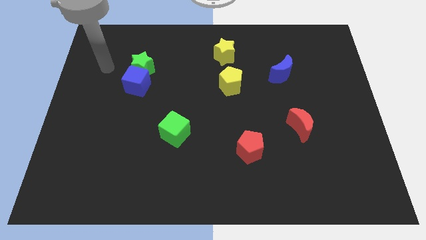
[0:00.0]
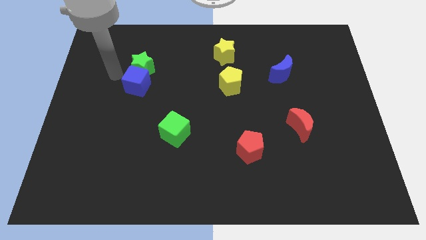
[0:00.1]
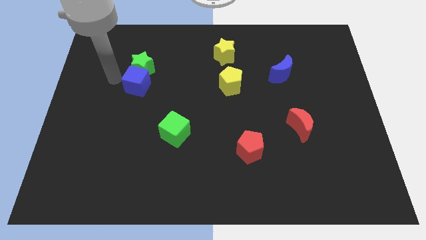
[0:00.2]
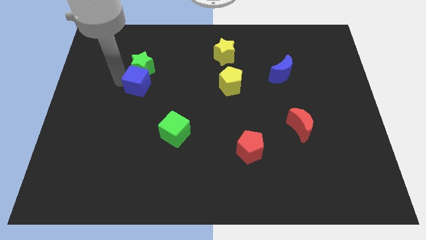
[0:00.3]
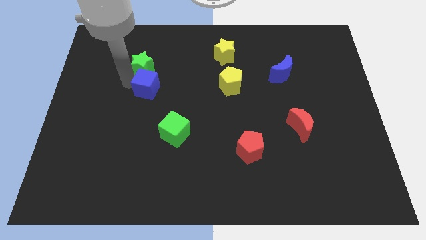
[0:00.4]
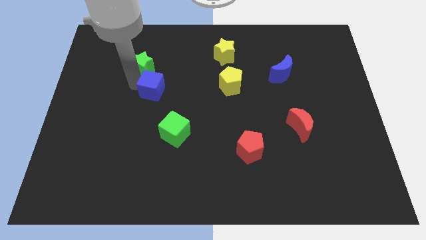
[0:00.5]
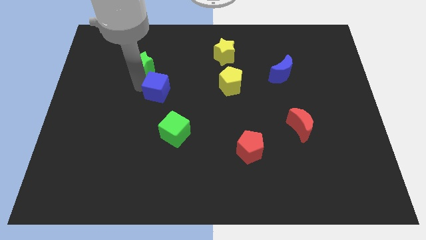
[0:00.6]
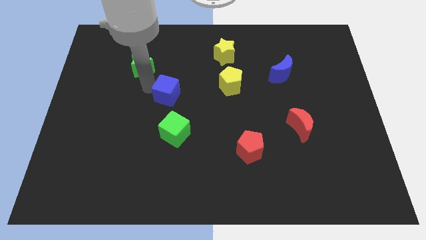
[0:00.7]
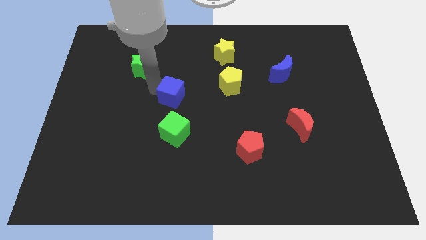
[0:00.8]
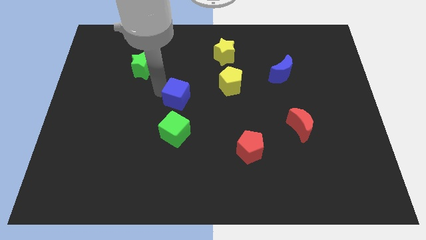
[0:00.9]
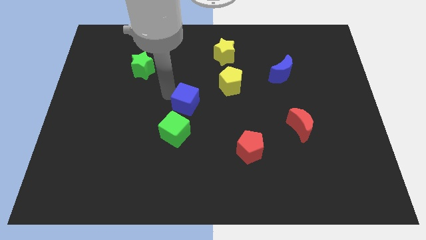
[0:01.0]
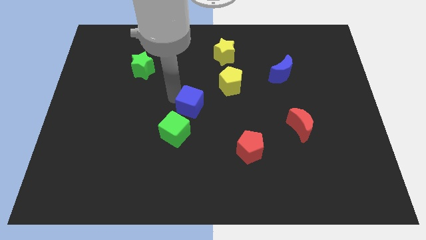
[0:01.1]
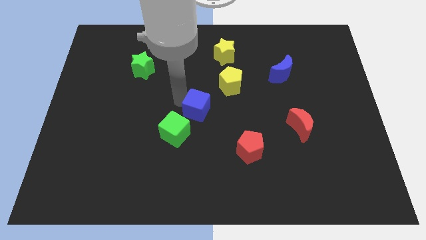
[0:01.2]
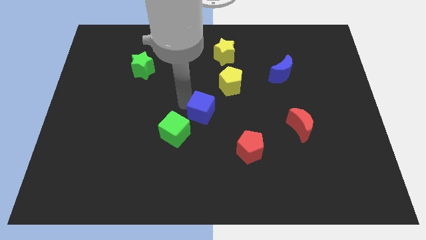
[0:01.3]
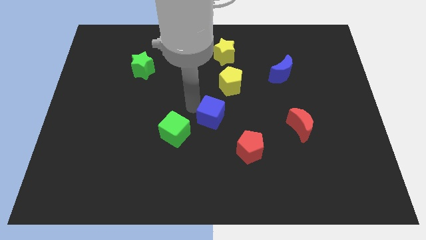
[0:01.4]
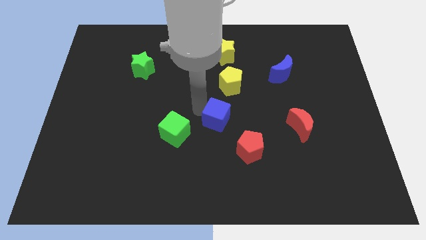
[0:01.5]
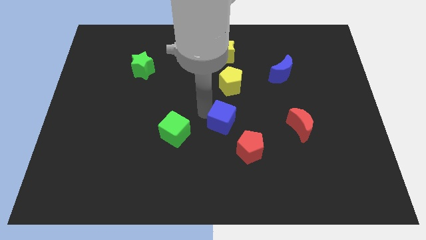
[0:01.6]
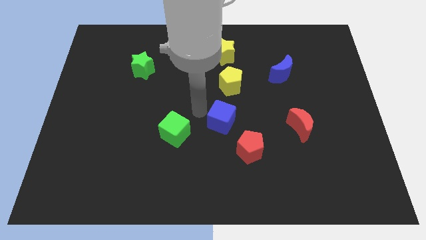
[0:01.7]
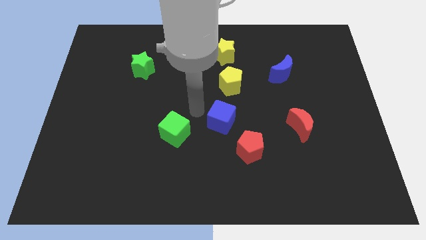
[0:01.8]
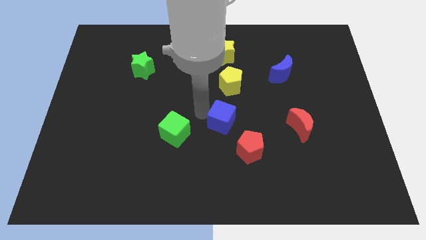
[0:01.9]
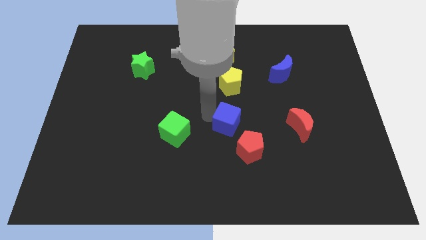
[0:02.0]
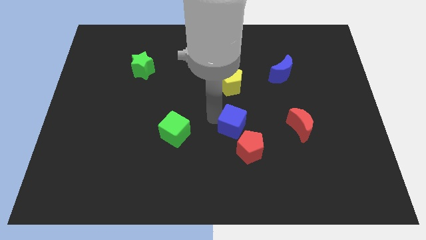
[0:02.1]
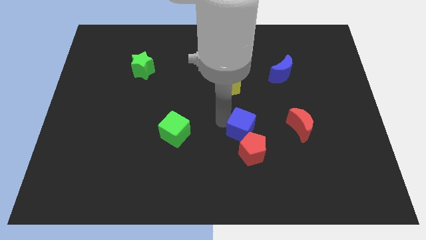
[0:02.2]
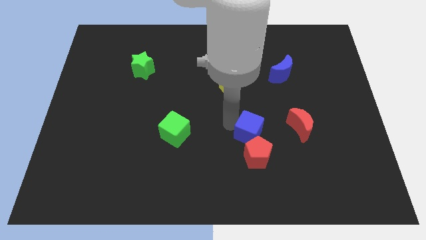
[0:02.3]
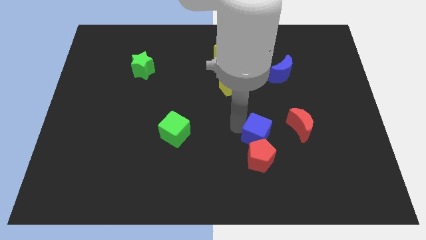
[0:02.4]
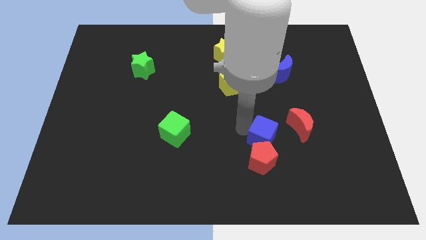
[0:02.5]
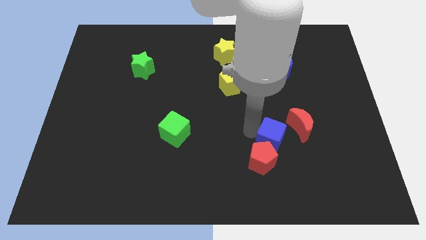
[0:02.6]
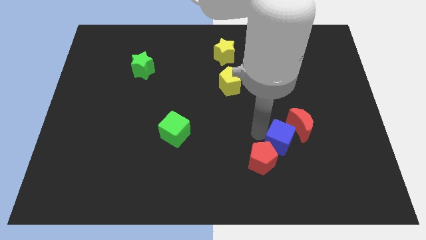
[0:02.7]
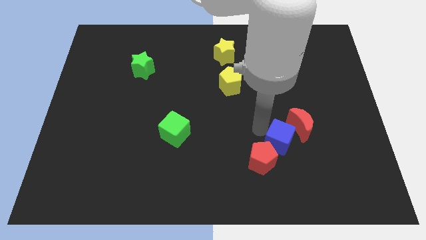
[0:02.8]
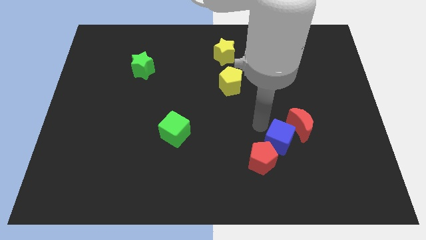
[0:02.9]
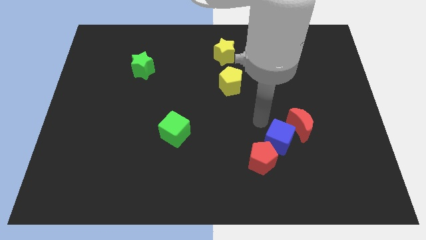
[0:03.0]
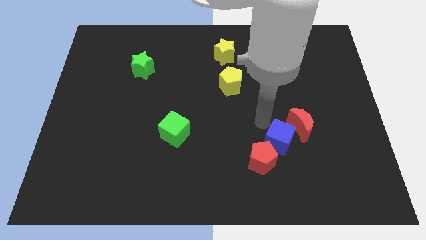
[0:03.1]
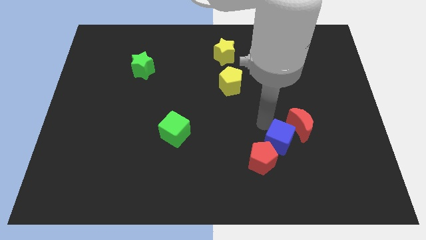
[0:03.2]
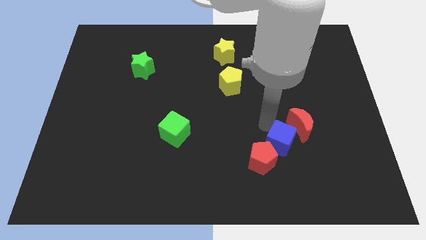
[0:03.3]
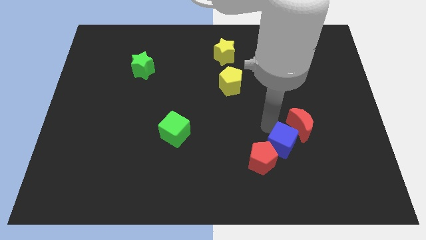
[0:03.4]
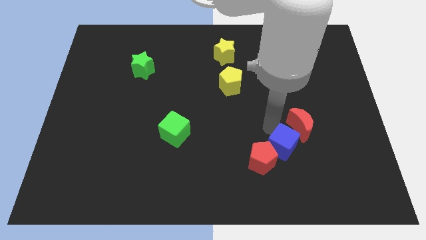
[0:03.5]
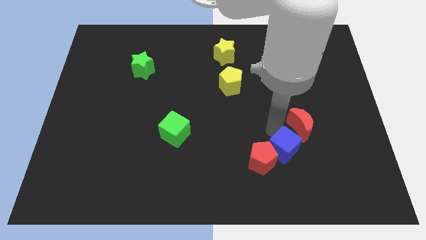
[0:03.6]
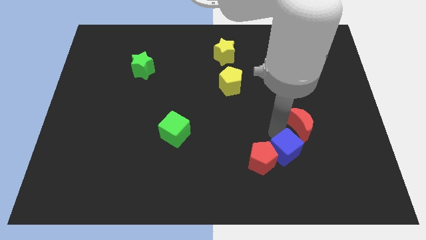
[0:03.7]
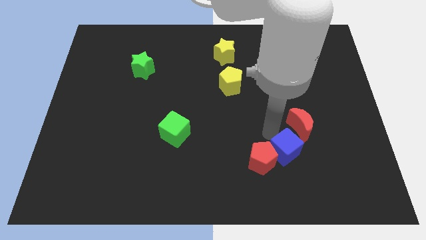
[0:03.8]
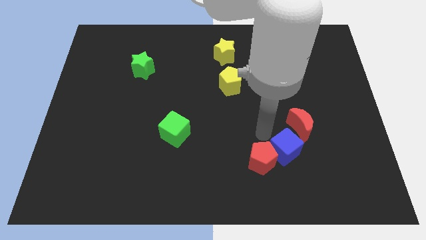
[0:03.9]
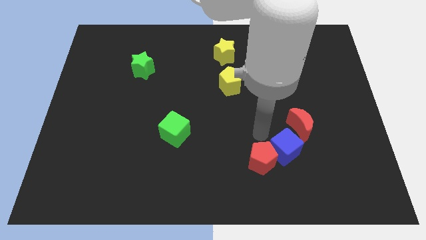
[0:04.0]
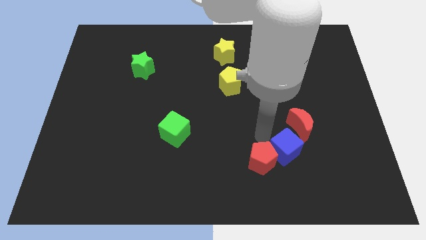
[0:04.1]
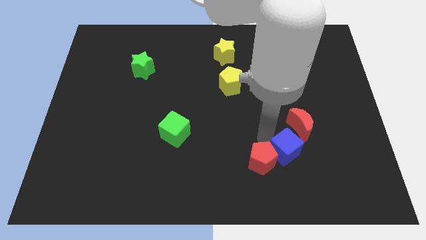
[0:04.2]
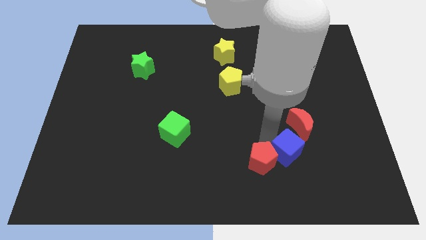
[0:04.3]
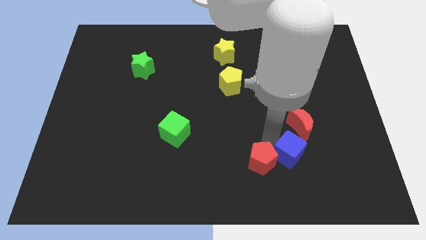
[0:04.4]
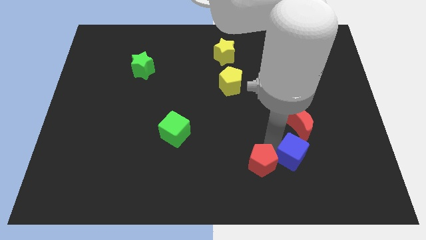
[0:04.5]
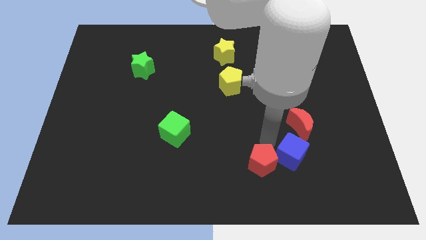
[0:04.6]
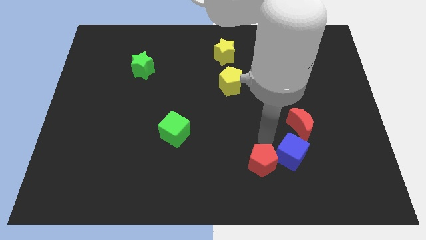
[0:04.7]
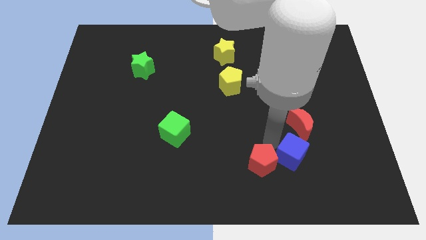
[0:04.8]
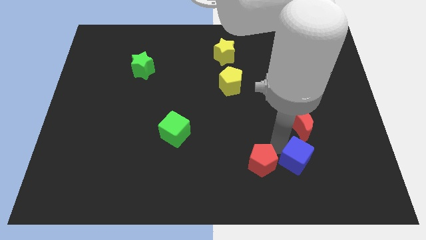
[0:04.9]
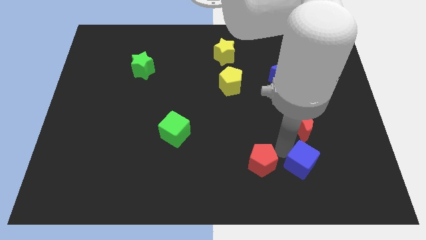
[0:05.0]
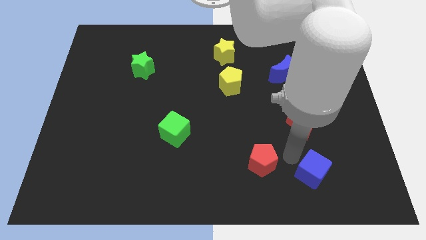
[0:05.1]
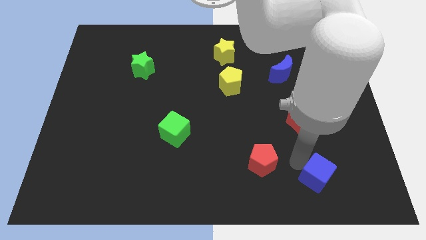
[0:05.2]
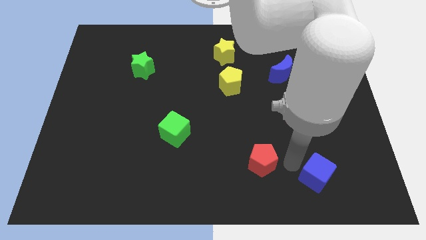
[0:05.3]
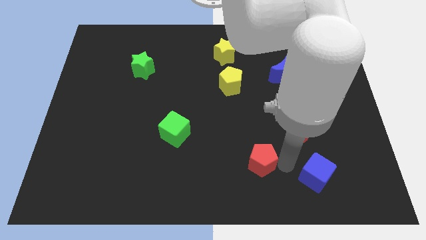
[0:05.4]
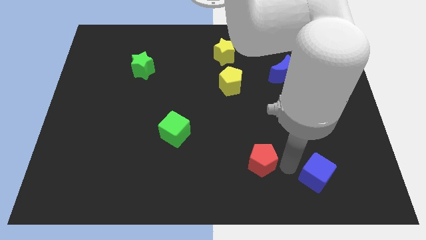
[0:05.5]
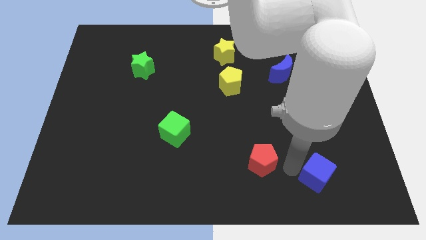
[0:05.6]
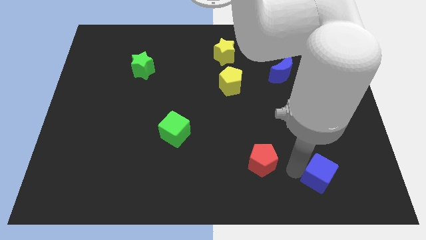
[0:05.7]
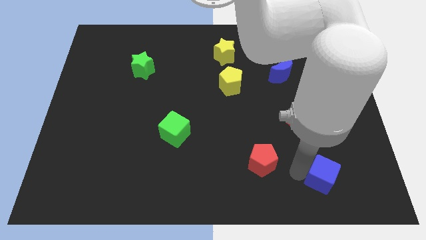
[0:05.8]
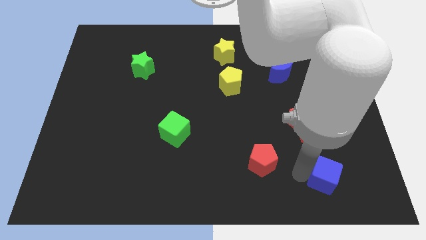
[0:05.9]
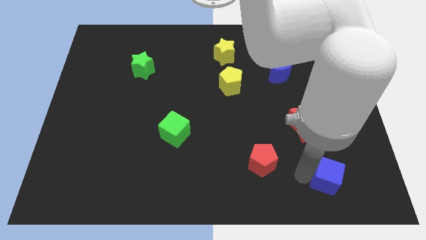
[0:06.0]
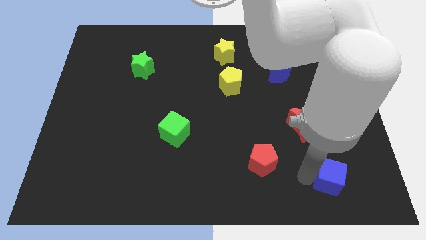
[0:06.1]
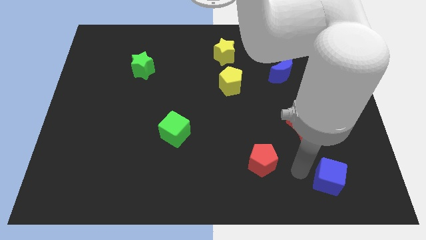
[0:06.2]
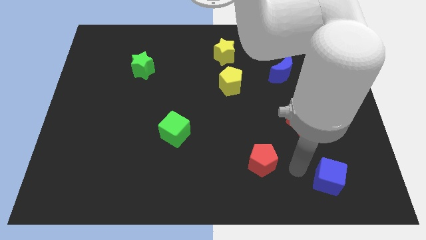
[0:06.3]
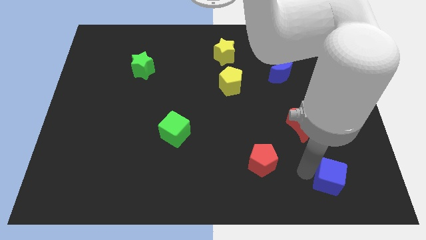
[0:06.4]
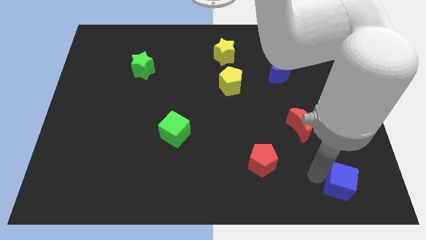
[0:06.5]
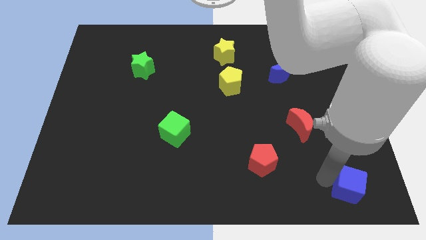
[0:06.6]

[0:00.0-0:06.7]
slide the blue cube to the bottom right

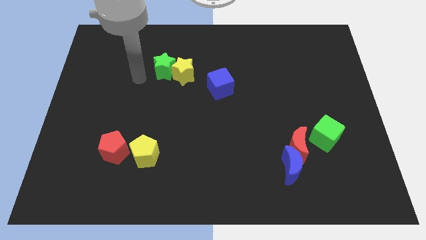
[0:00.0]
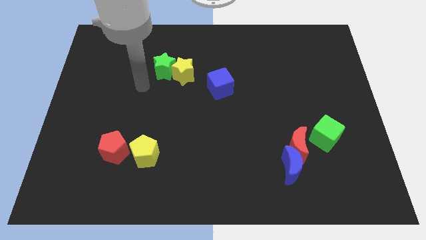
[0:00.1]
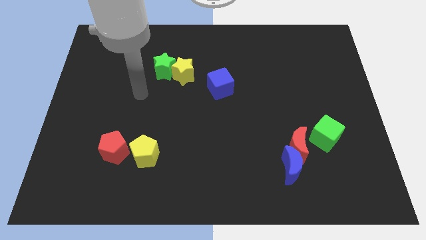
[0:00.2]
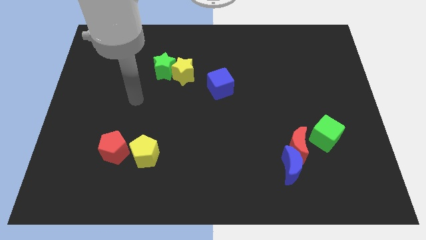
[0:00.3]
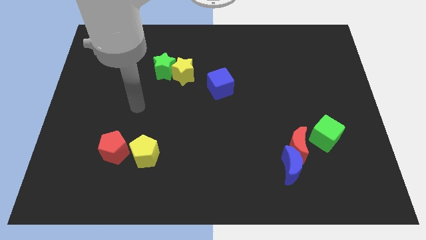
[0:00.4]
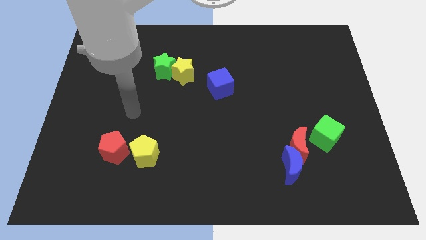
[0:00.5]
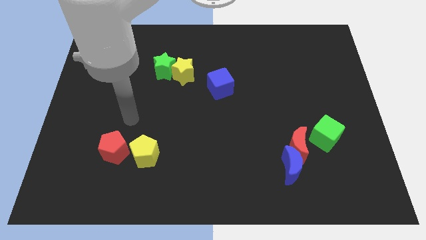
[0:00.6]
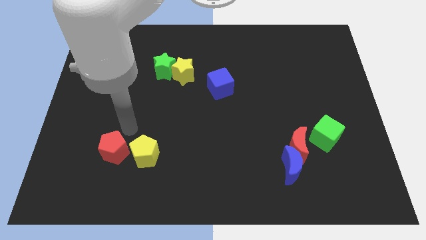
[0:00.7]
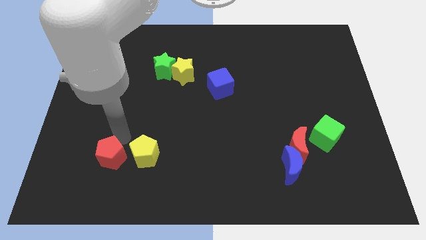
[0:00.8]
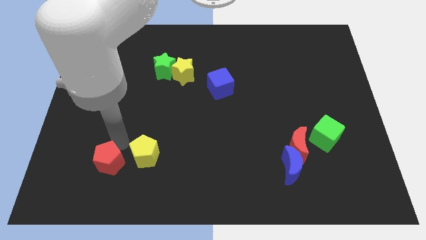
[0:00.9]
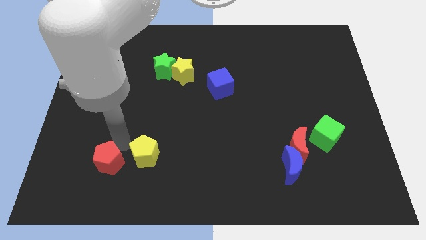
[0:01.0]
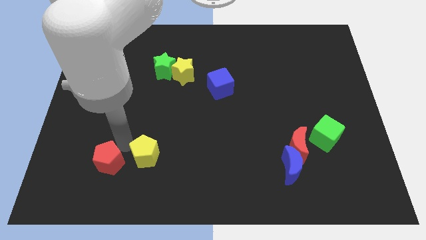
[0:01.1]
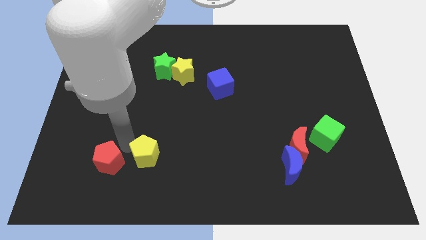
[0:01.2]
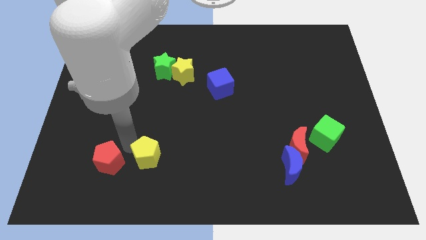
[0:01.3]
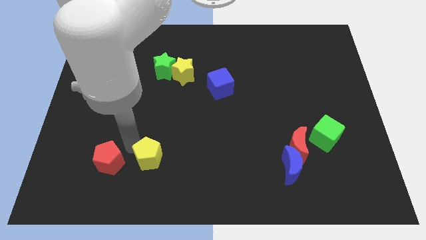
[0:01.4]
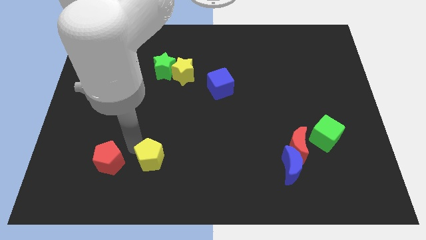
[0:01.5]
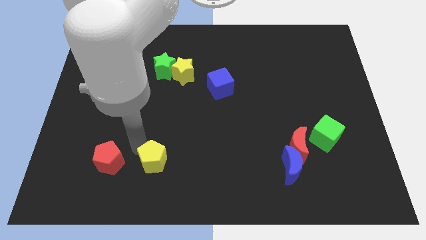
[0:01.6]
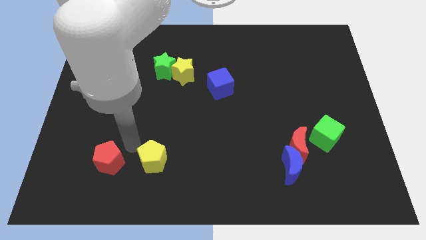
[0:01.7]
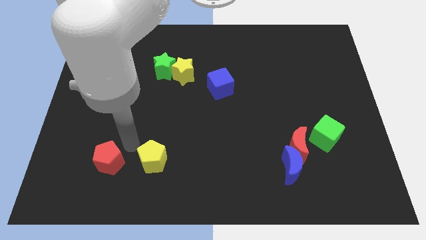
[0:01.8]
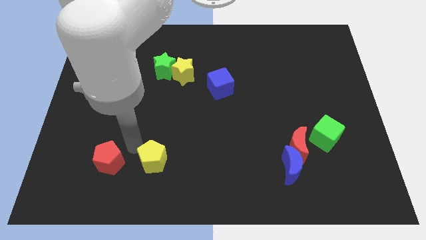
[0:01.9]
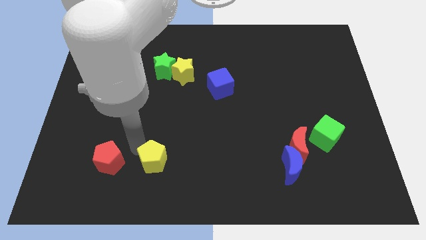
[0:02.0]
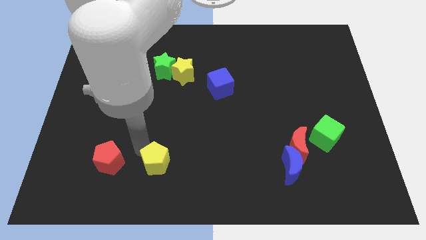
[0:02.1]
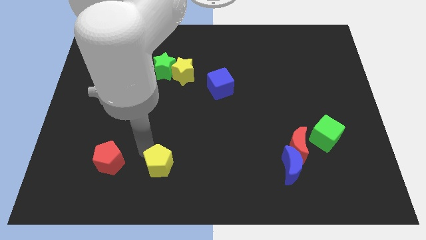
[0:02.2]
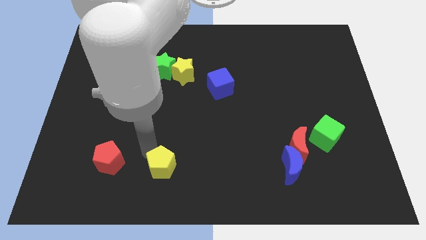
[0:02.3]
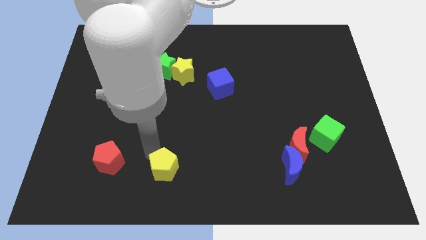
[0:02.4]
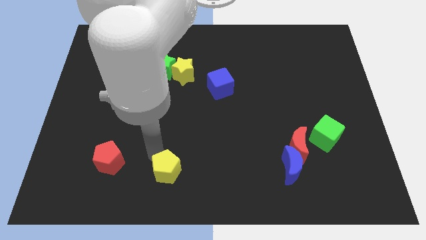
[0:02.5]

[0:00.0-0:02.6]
put the yellow pentagon to the bottom side
